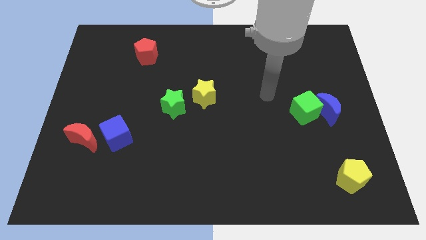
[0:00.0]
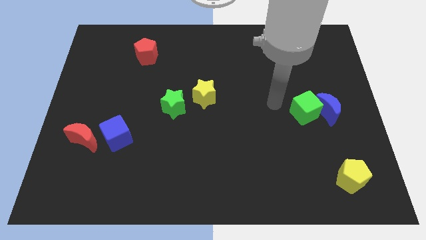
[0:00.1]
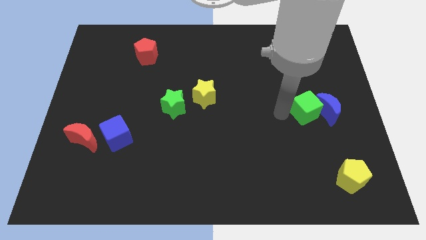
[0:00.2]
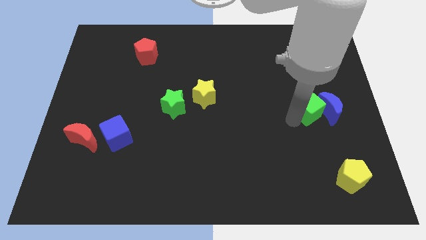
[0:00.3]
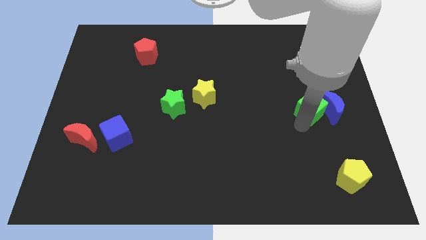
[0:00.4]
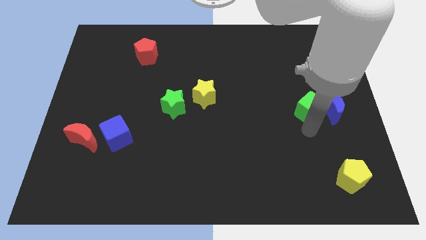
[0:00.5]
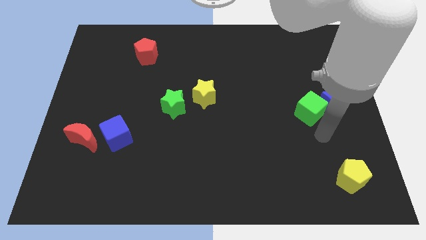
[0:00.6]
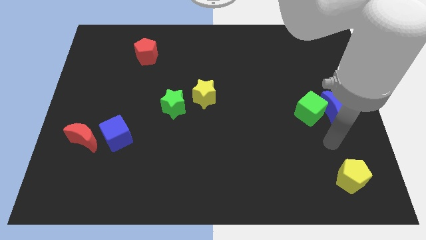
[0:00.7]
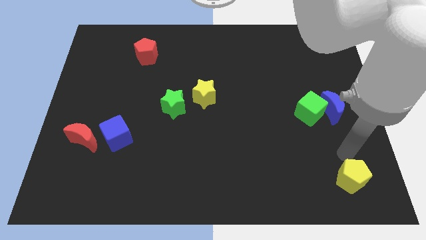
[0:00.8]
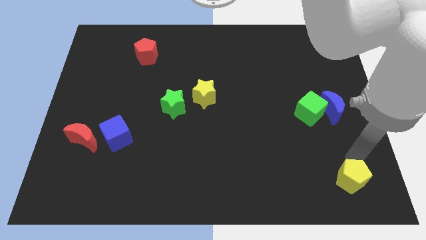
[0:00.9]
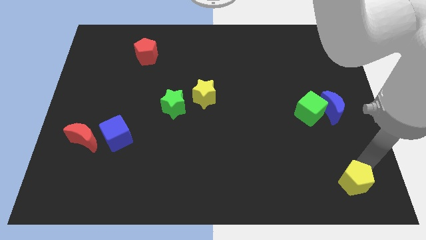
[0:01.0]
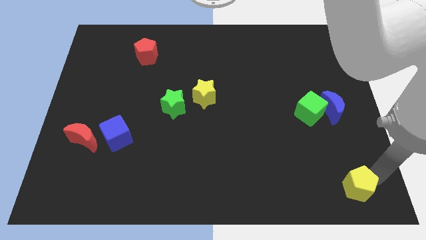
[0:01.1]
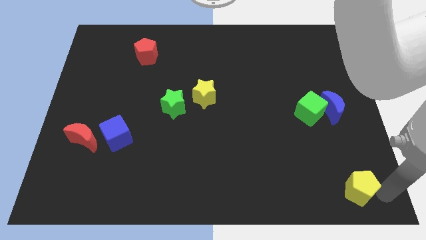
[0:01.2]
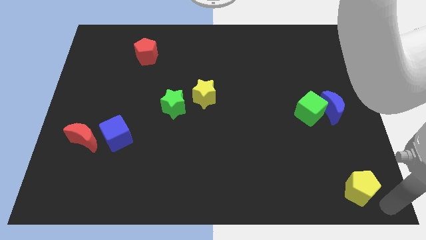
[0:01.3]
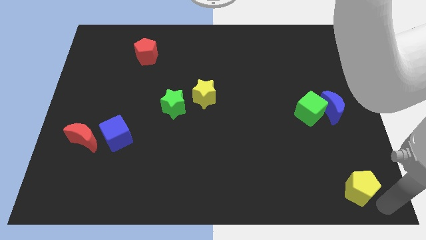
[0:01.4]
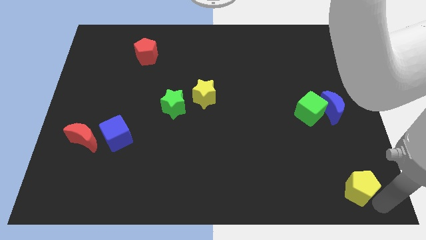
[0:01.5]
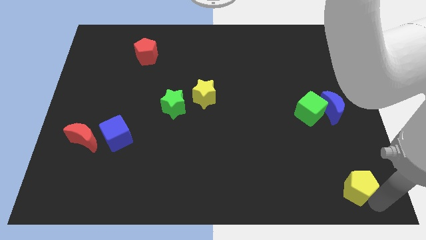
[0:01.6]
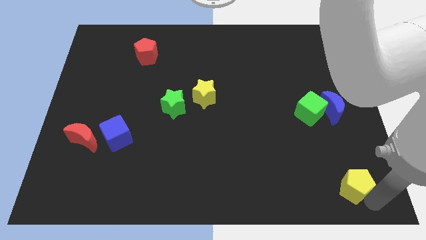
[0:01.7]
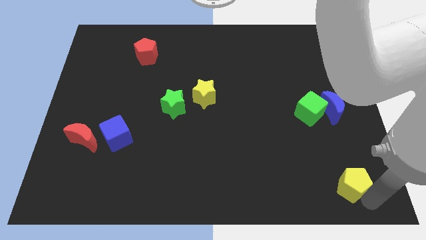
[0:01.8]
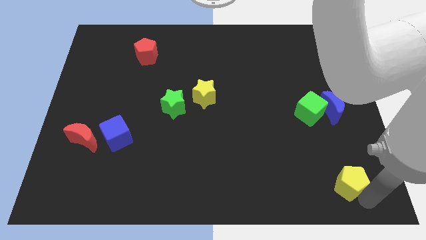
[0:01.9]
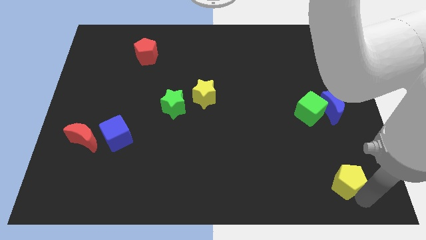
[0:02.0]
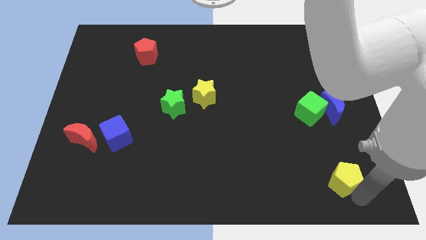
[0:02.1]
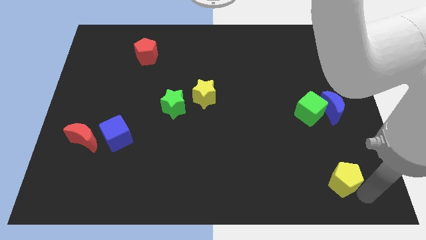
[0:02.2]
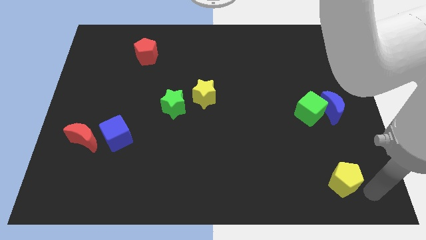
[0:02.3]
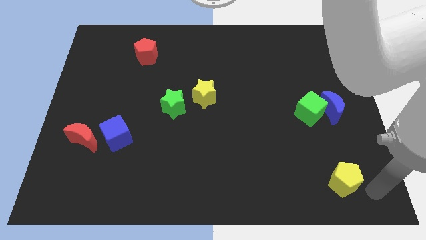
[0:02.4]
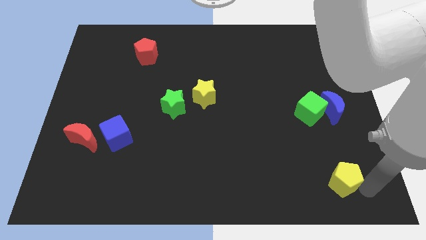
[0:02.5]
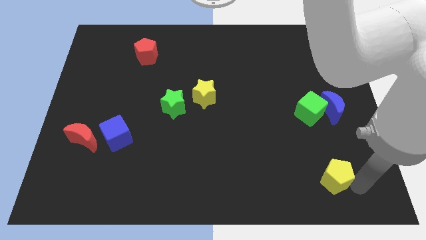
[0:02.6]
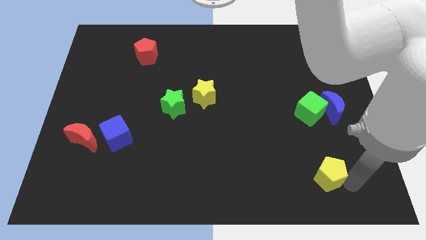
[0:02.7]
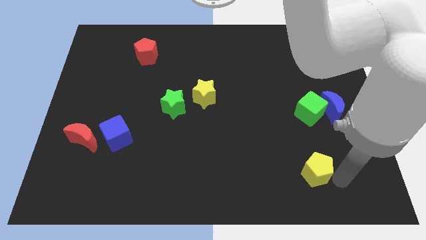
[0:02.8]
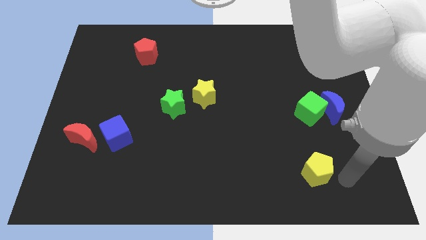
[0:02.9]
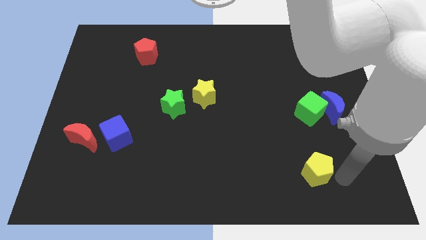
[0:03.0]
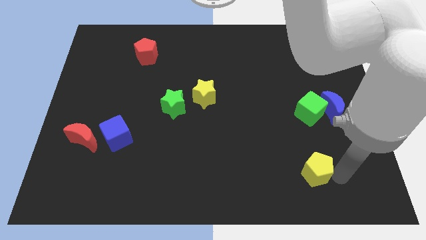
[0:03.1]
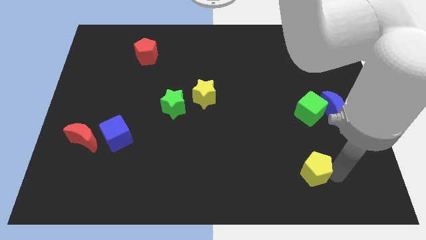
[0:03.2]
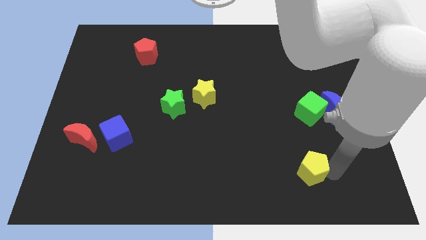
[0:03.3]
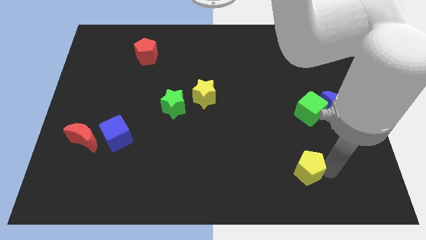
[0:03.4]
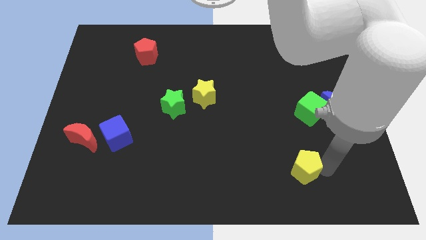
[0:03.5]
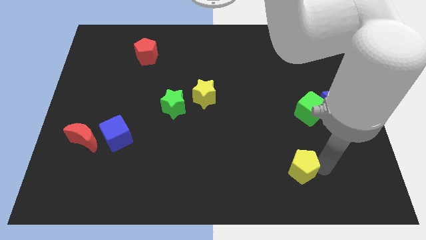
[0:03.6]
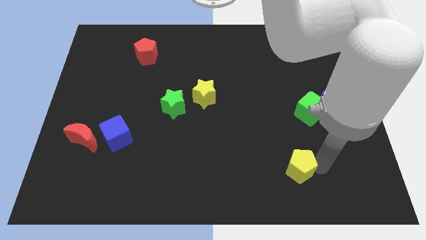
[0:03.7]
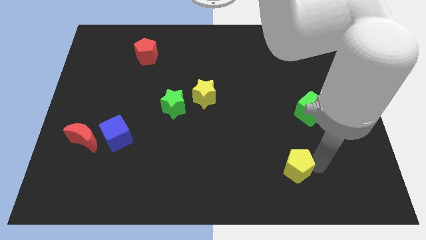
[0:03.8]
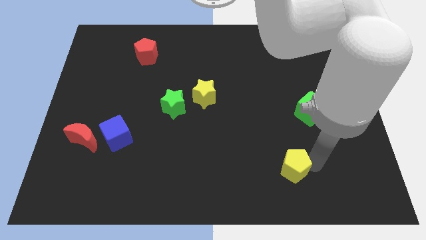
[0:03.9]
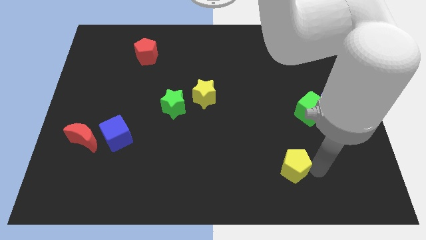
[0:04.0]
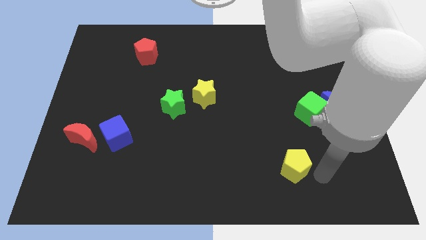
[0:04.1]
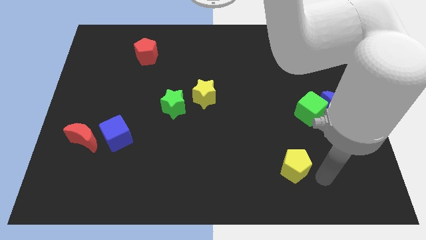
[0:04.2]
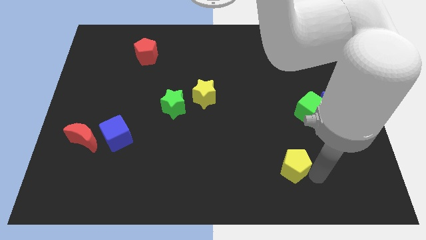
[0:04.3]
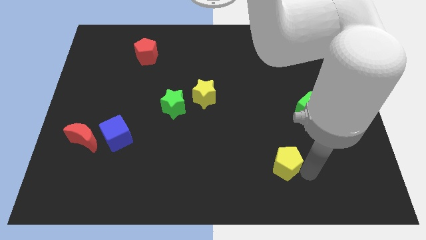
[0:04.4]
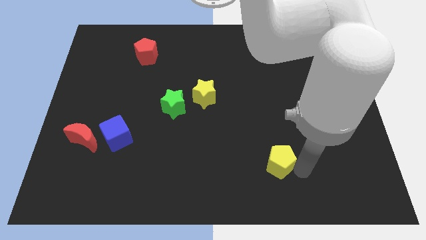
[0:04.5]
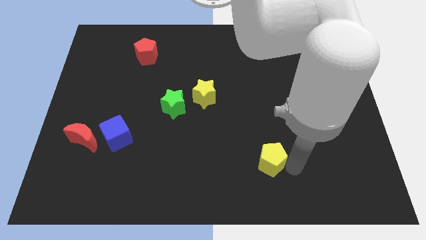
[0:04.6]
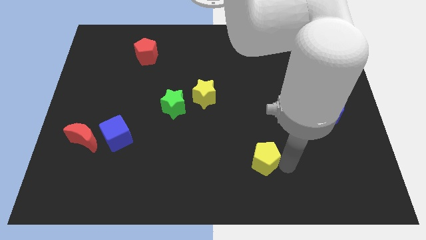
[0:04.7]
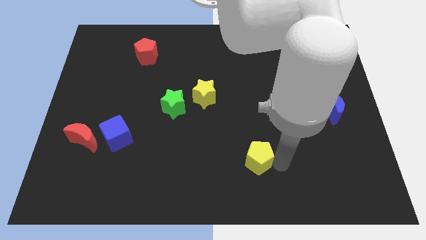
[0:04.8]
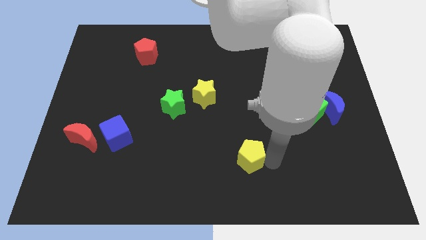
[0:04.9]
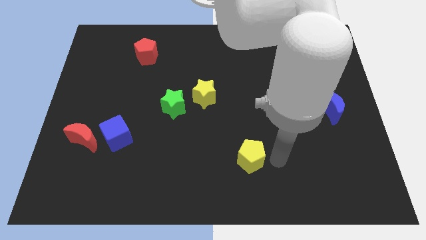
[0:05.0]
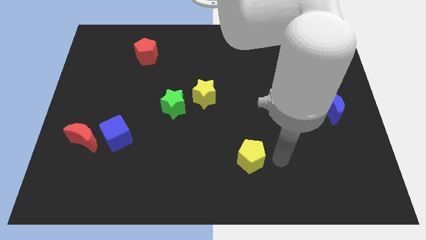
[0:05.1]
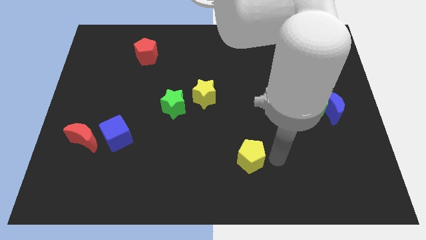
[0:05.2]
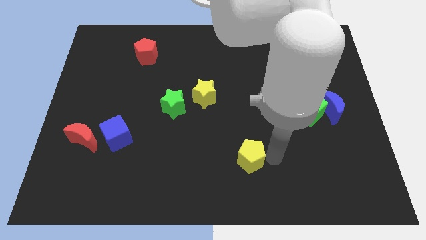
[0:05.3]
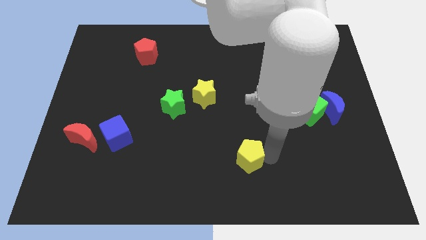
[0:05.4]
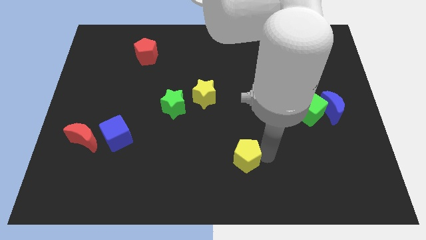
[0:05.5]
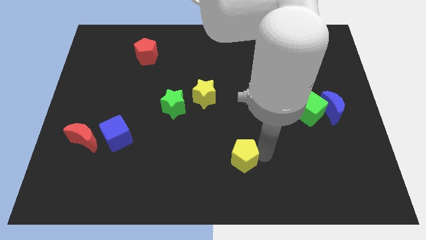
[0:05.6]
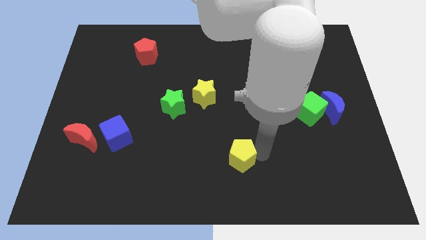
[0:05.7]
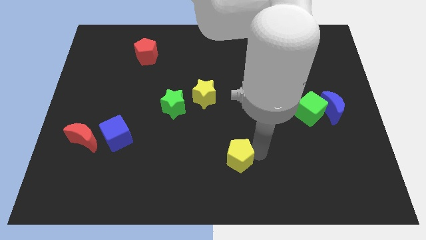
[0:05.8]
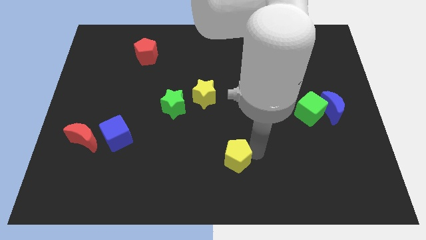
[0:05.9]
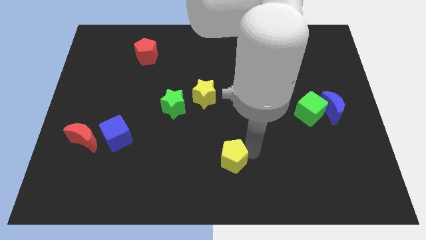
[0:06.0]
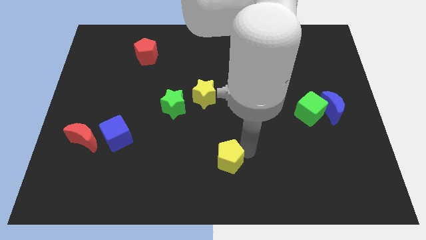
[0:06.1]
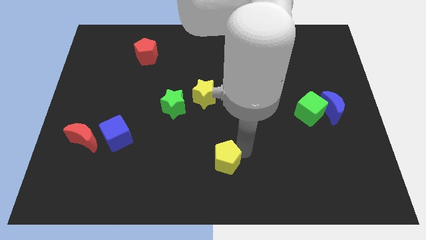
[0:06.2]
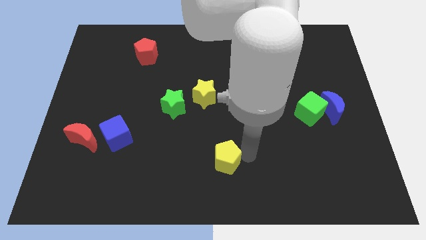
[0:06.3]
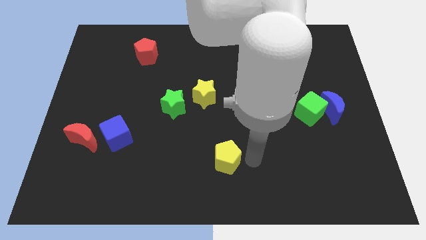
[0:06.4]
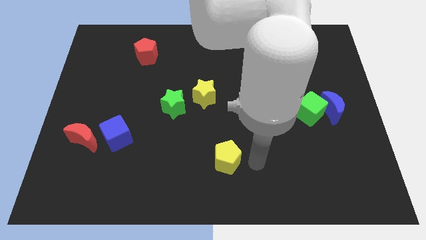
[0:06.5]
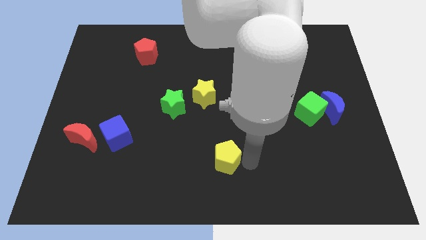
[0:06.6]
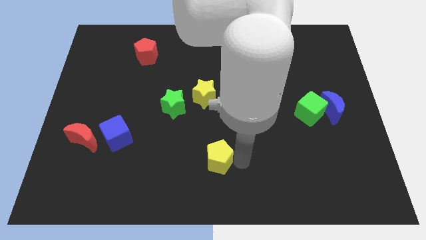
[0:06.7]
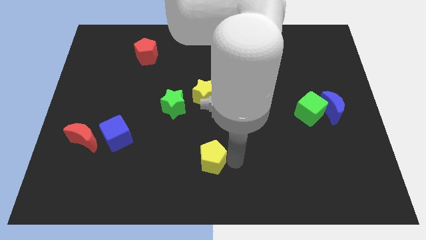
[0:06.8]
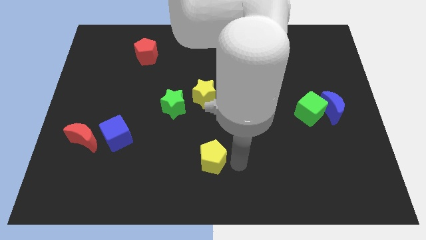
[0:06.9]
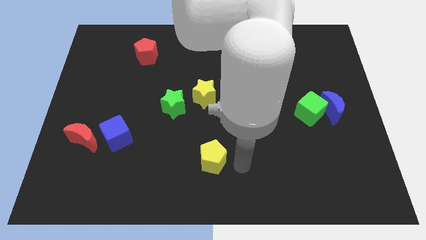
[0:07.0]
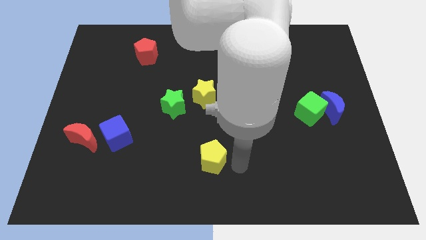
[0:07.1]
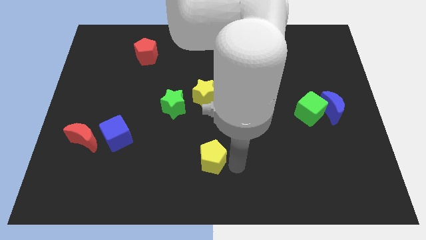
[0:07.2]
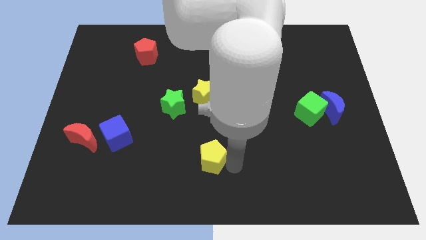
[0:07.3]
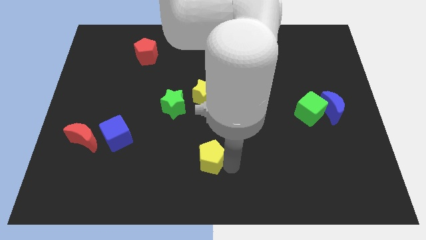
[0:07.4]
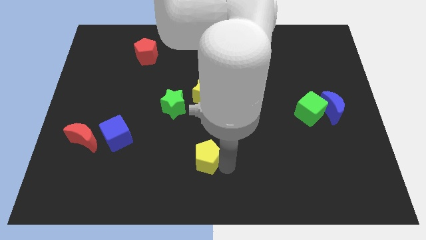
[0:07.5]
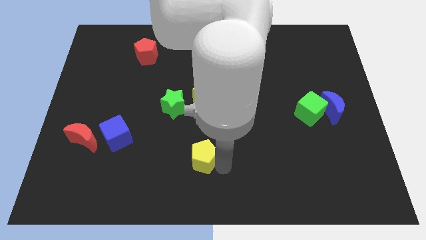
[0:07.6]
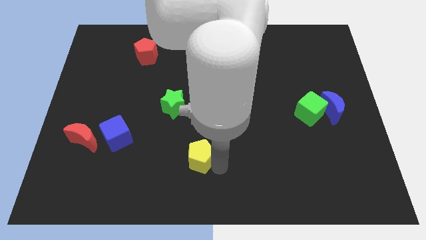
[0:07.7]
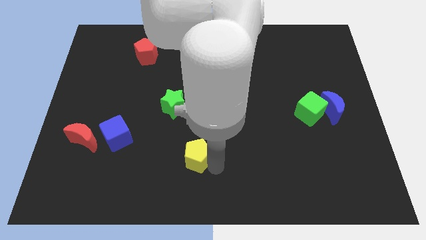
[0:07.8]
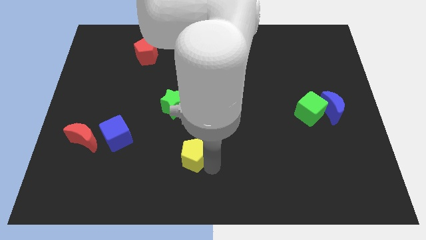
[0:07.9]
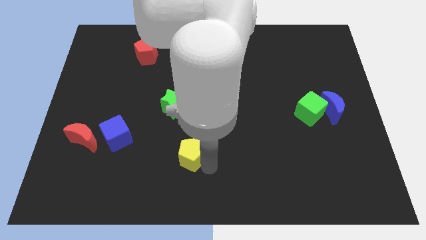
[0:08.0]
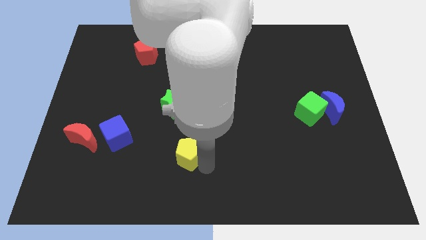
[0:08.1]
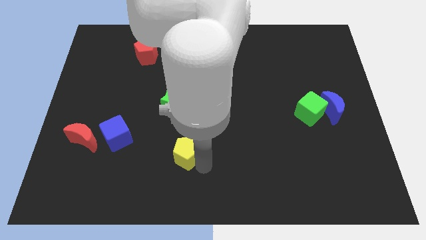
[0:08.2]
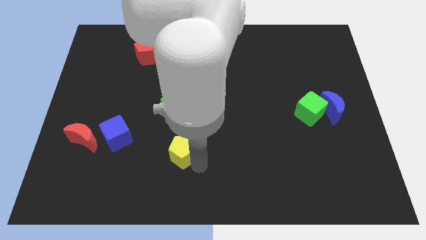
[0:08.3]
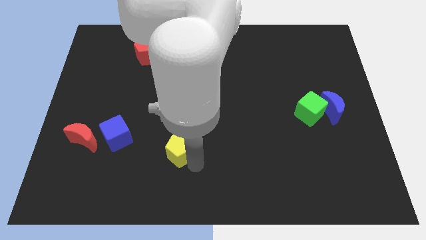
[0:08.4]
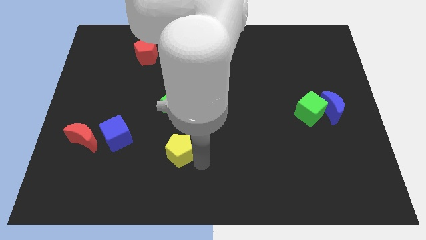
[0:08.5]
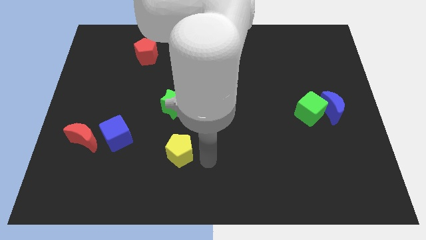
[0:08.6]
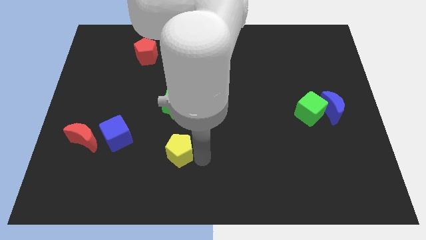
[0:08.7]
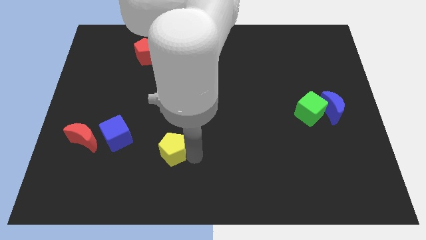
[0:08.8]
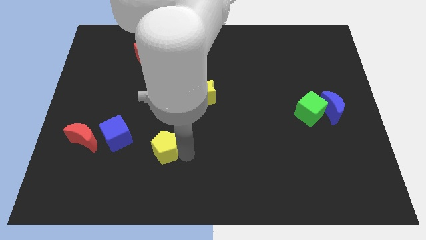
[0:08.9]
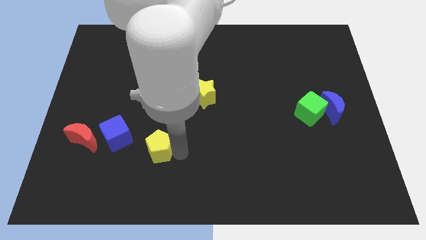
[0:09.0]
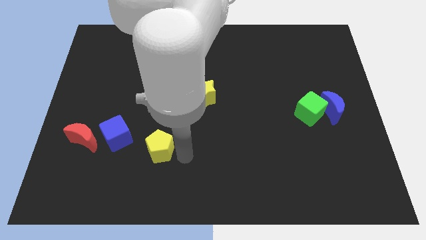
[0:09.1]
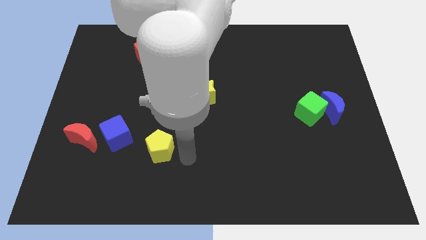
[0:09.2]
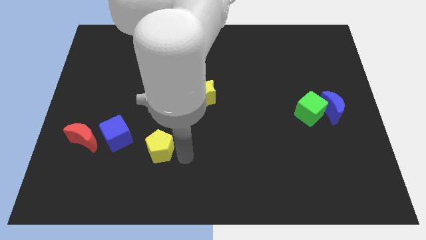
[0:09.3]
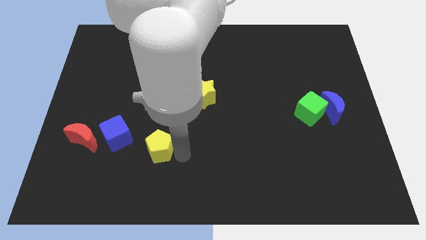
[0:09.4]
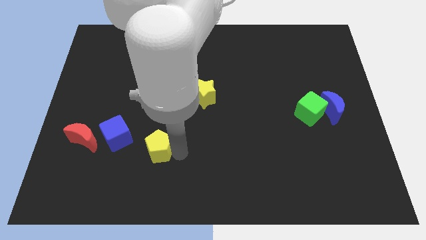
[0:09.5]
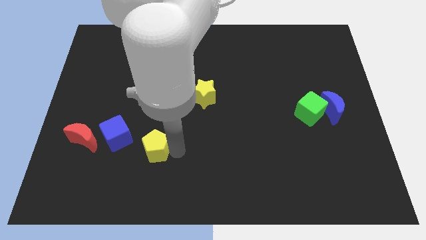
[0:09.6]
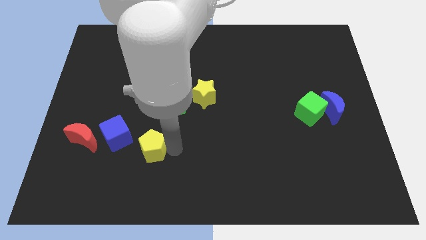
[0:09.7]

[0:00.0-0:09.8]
push the yellow pentagon to the right side of the red moon
